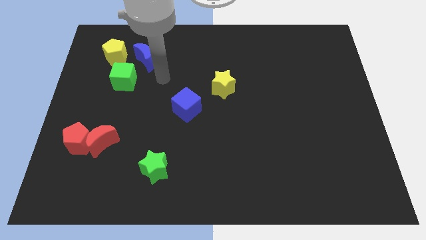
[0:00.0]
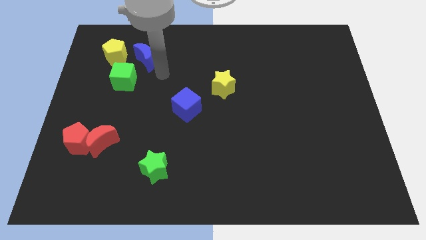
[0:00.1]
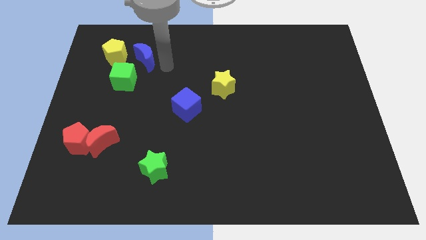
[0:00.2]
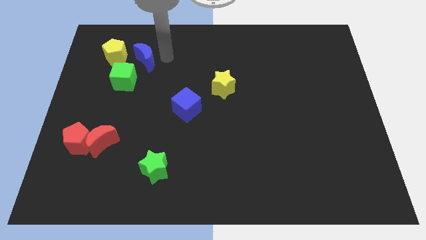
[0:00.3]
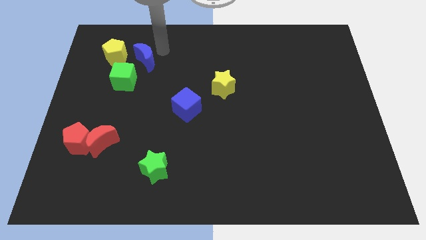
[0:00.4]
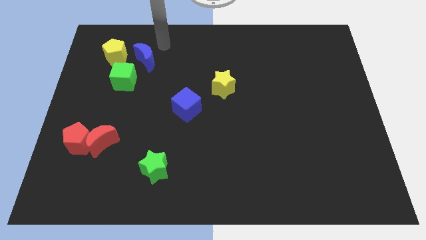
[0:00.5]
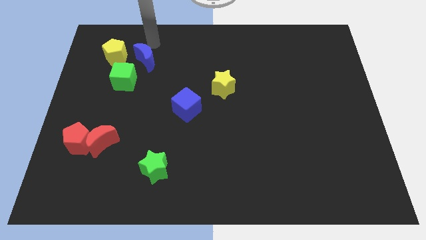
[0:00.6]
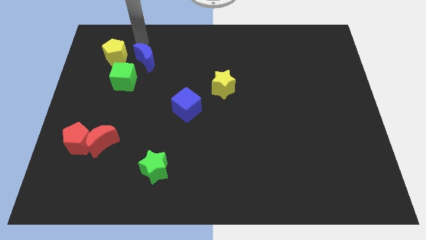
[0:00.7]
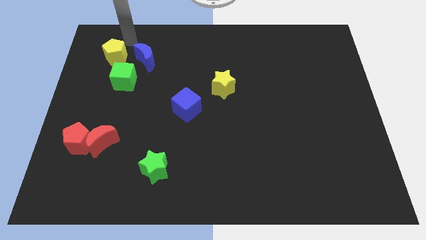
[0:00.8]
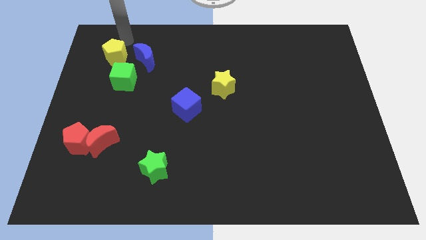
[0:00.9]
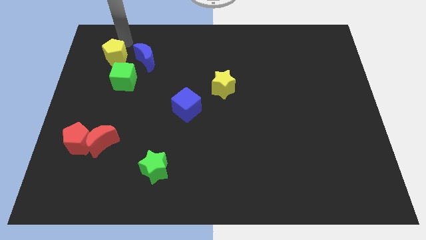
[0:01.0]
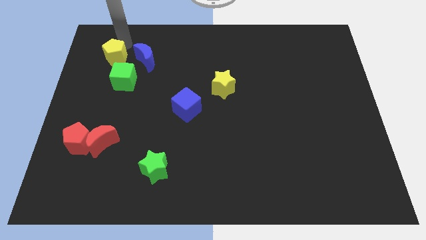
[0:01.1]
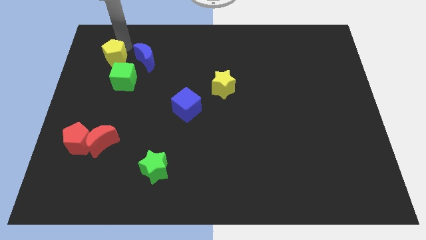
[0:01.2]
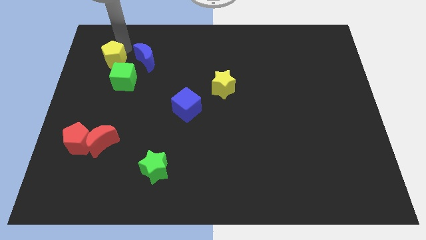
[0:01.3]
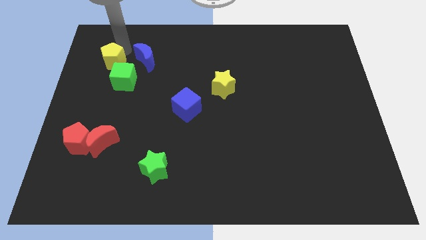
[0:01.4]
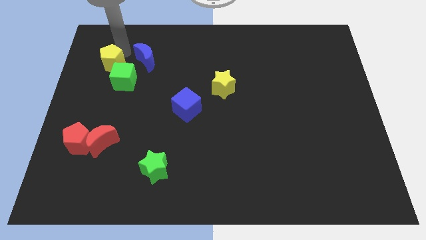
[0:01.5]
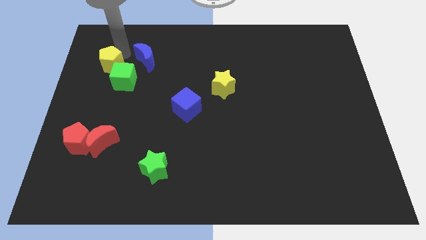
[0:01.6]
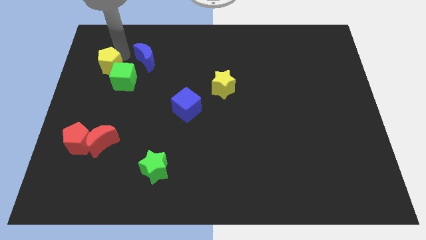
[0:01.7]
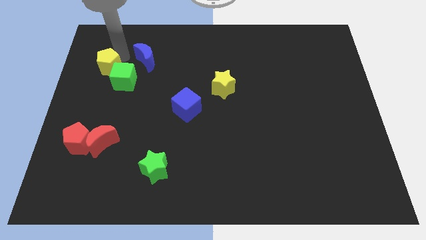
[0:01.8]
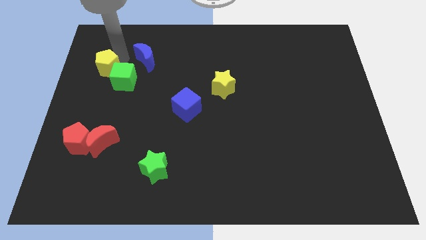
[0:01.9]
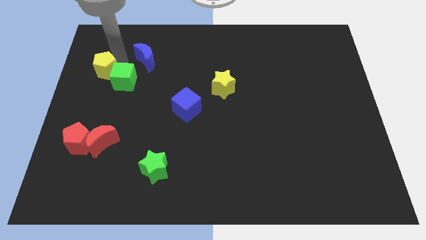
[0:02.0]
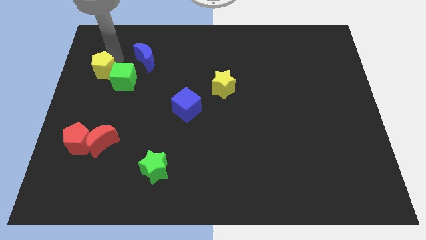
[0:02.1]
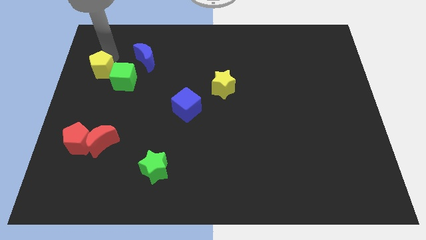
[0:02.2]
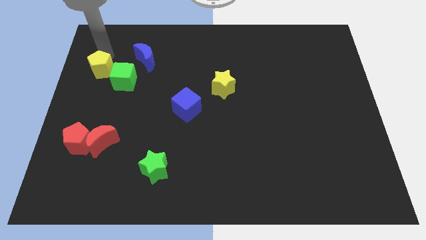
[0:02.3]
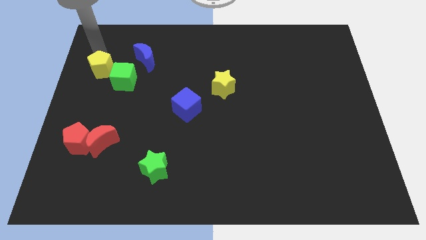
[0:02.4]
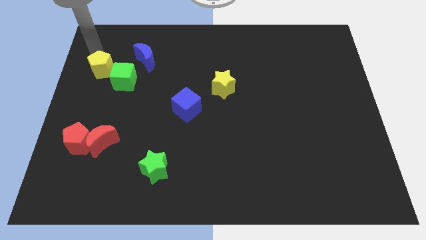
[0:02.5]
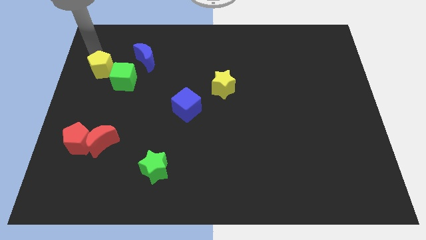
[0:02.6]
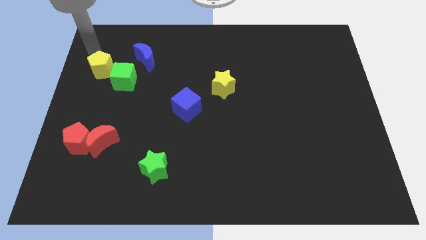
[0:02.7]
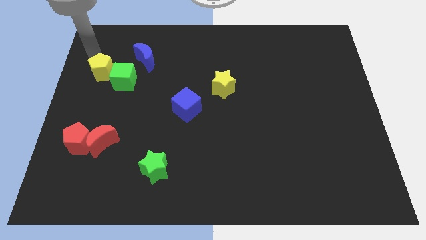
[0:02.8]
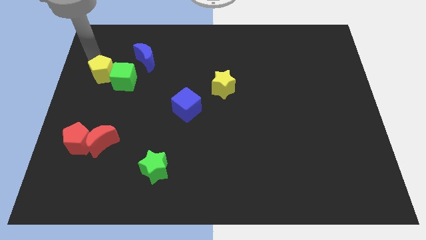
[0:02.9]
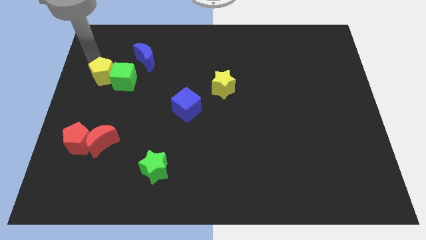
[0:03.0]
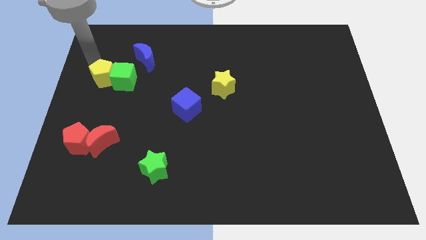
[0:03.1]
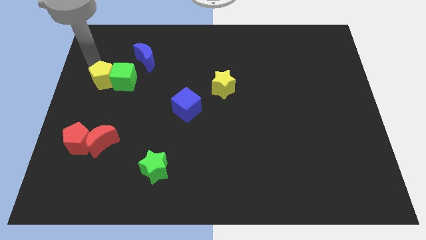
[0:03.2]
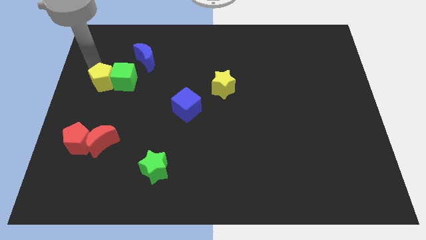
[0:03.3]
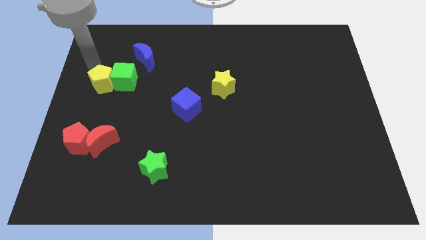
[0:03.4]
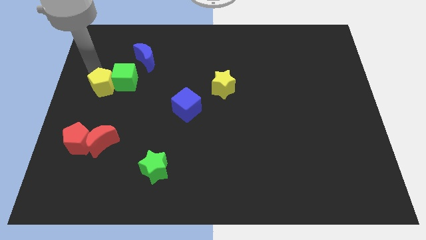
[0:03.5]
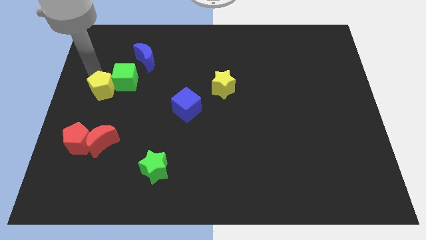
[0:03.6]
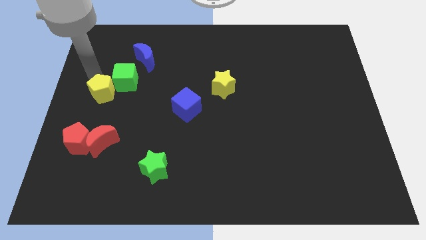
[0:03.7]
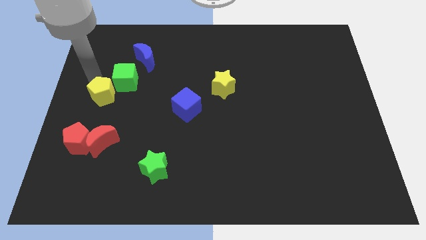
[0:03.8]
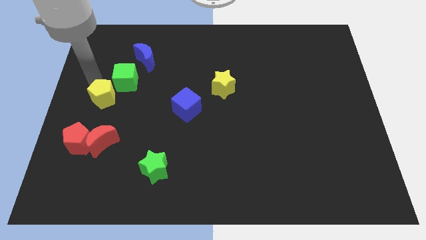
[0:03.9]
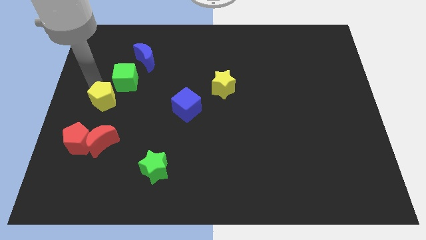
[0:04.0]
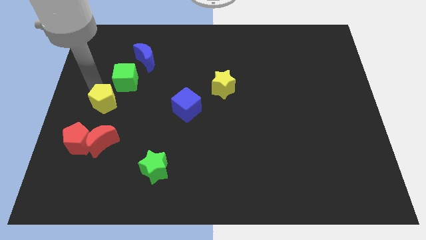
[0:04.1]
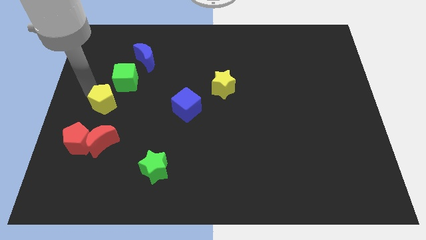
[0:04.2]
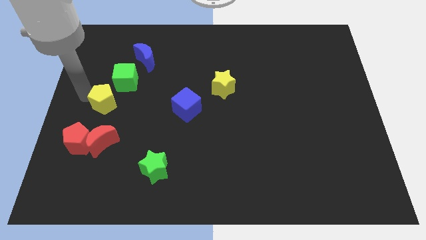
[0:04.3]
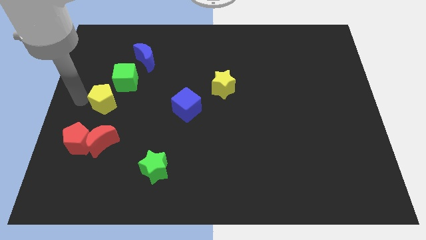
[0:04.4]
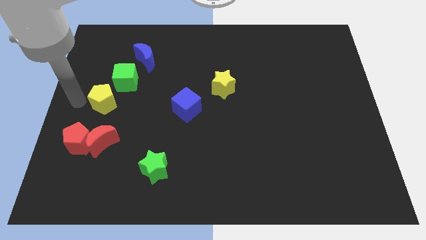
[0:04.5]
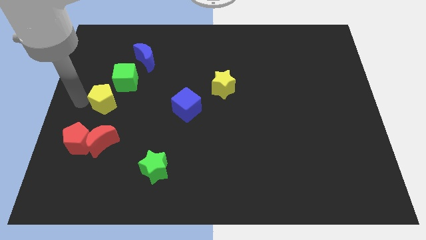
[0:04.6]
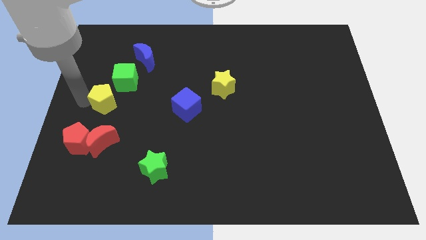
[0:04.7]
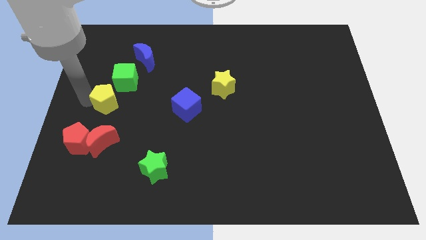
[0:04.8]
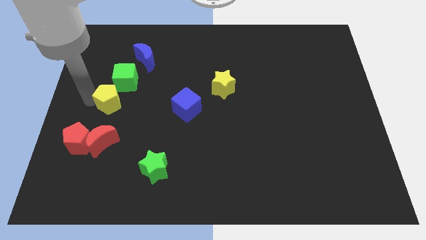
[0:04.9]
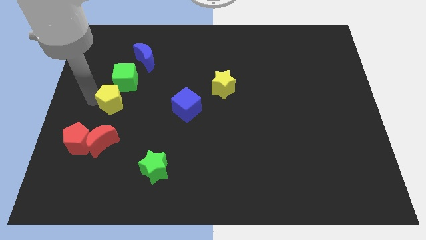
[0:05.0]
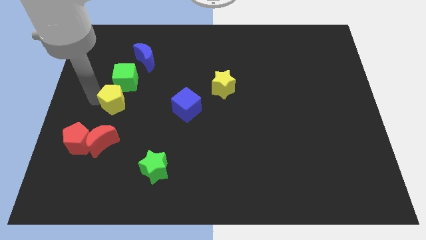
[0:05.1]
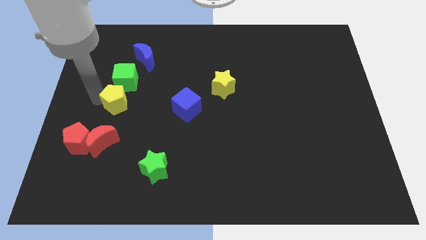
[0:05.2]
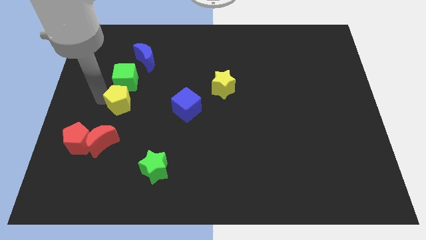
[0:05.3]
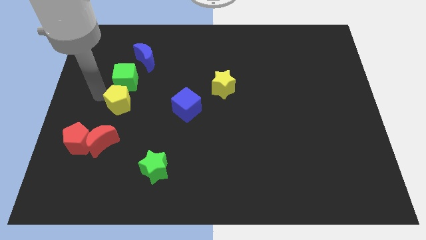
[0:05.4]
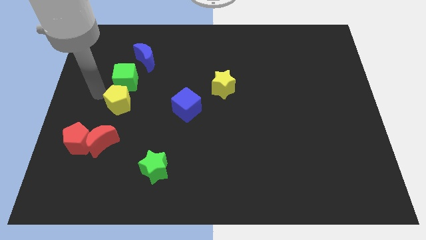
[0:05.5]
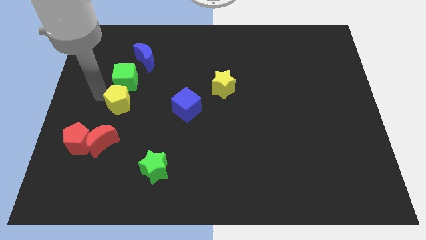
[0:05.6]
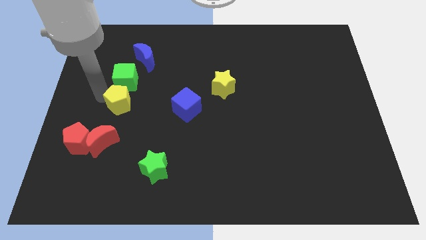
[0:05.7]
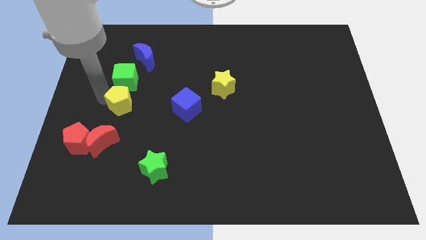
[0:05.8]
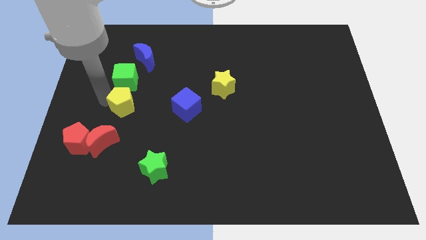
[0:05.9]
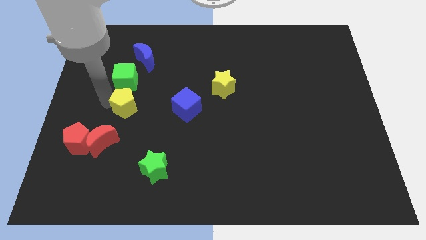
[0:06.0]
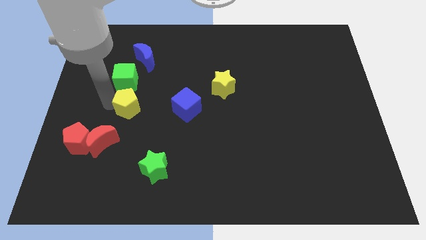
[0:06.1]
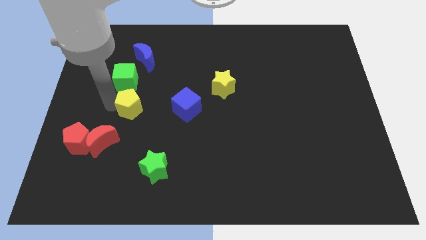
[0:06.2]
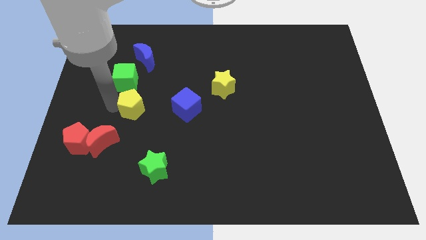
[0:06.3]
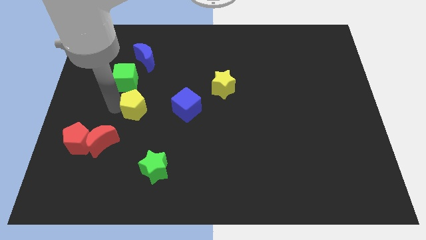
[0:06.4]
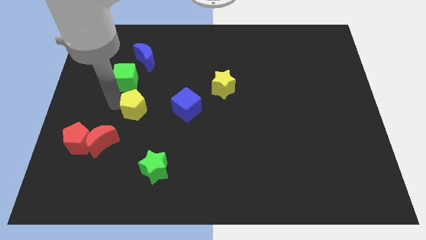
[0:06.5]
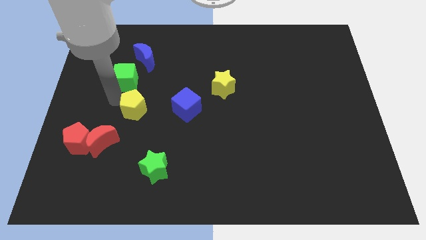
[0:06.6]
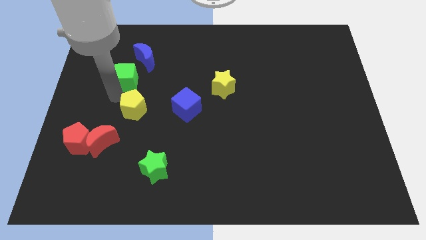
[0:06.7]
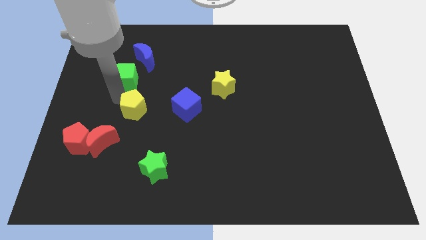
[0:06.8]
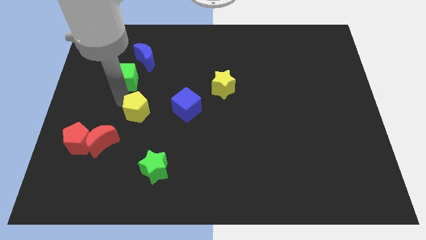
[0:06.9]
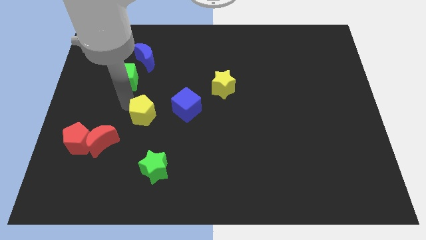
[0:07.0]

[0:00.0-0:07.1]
move the yellow pentagon to the top side of the green star
